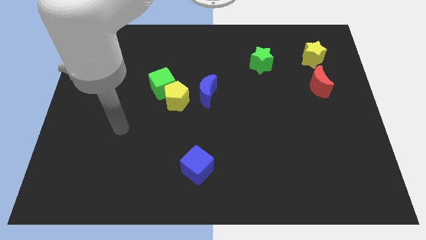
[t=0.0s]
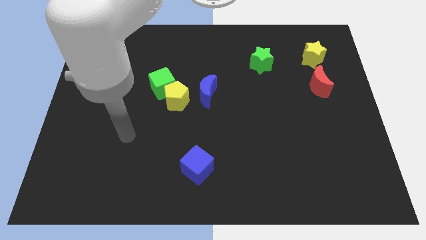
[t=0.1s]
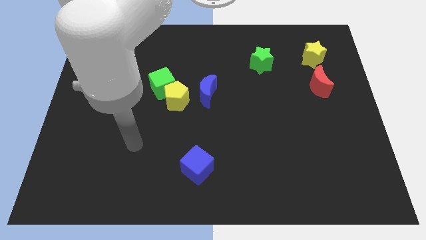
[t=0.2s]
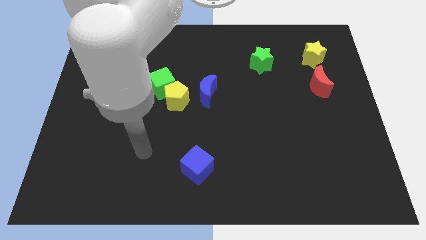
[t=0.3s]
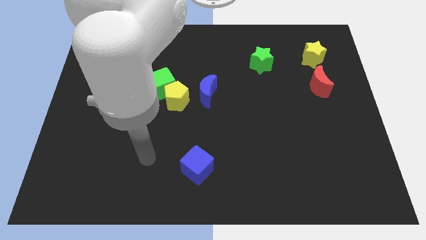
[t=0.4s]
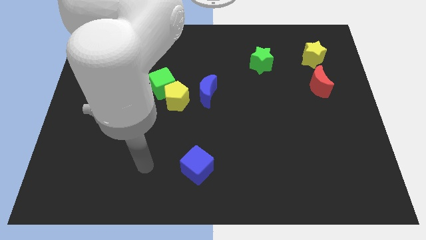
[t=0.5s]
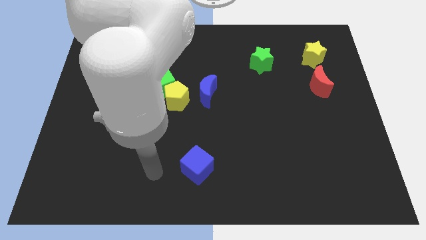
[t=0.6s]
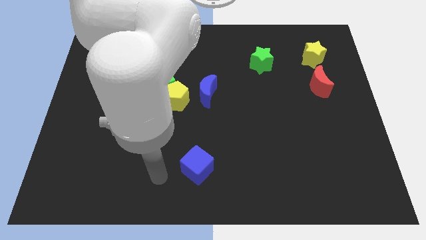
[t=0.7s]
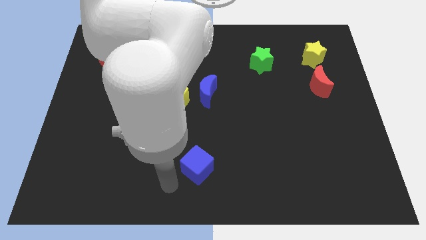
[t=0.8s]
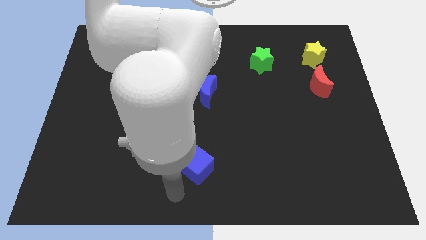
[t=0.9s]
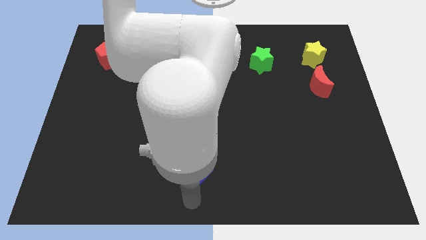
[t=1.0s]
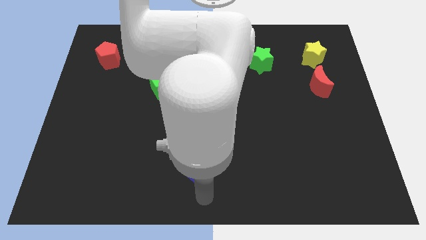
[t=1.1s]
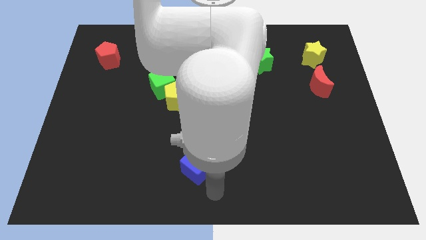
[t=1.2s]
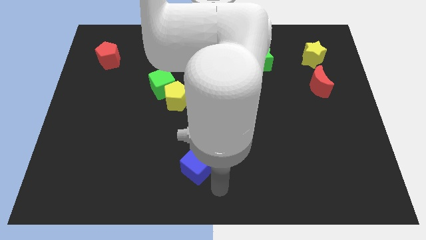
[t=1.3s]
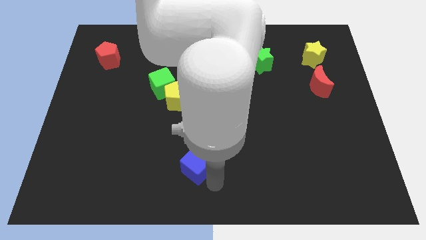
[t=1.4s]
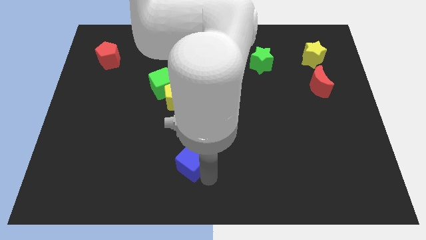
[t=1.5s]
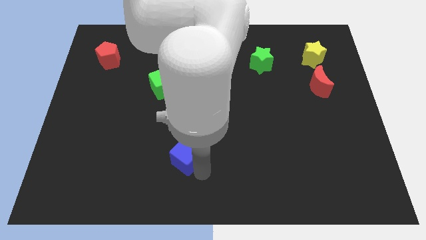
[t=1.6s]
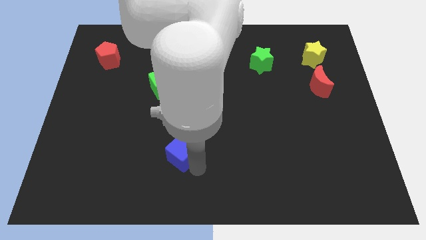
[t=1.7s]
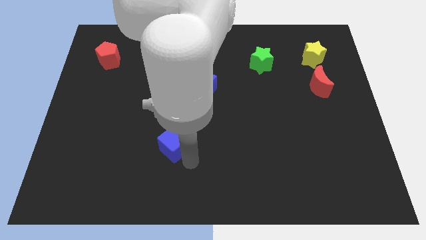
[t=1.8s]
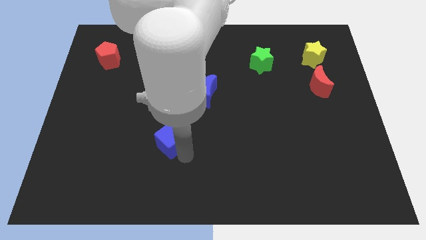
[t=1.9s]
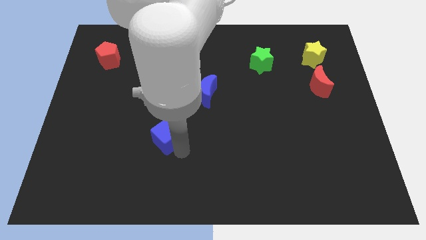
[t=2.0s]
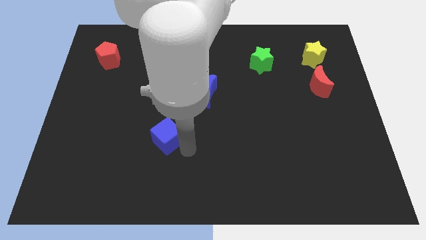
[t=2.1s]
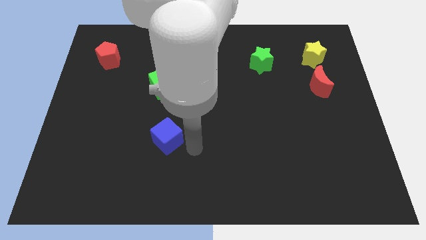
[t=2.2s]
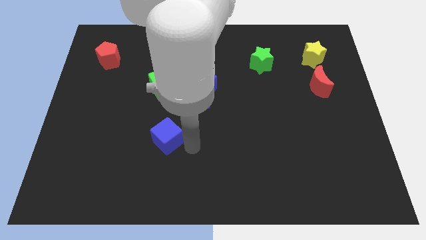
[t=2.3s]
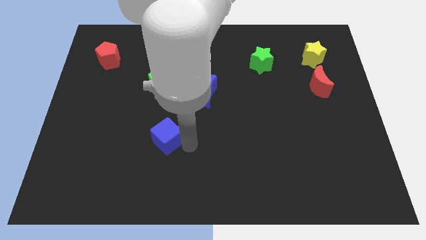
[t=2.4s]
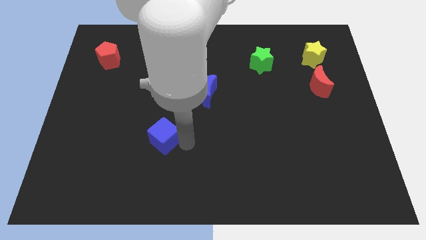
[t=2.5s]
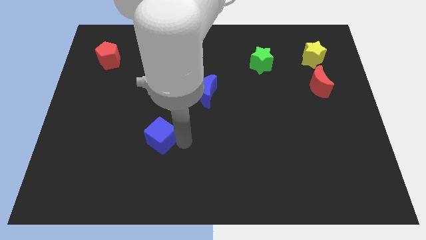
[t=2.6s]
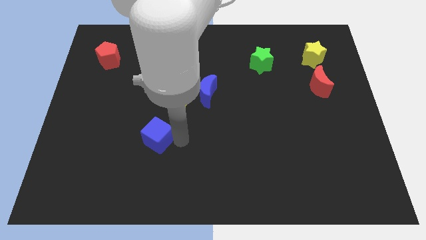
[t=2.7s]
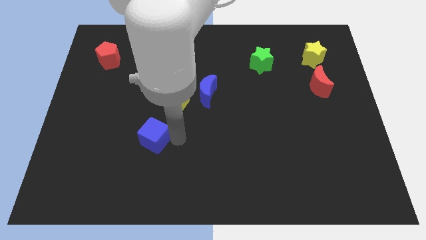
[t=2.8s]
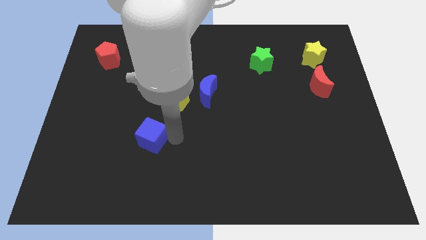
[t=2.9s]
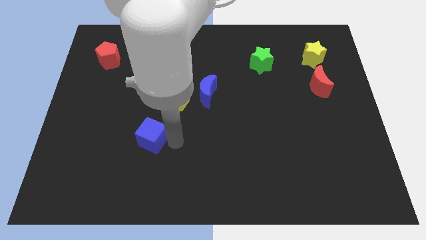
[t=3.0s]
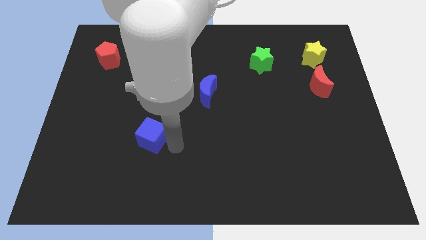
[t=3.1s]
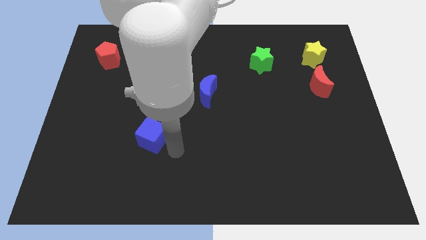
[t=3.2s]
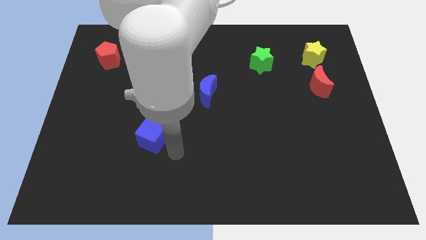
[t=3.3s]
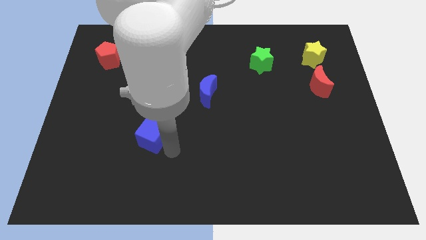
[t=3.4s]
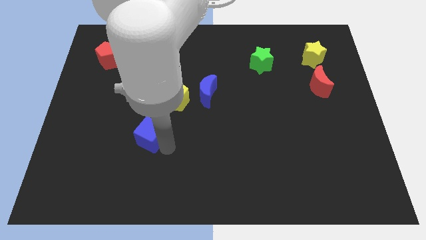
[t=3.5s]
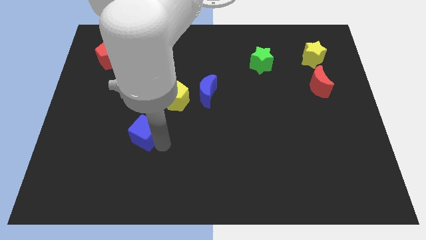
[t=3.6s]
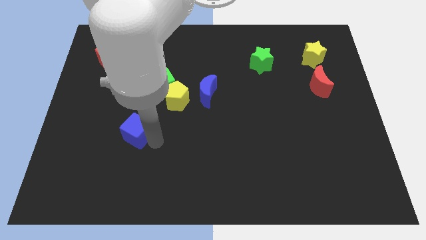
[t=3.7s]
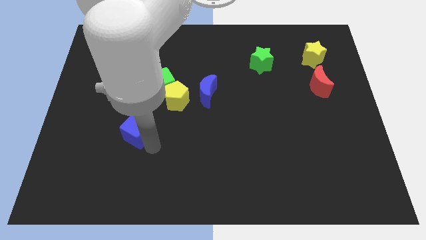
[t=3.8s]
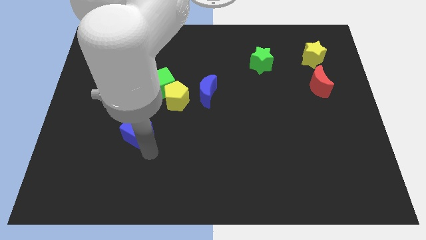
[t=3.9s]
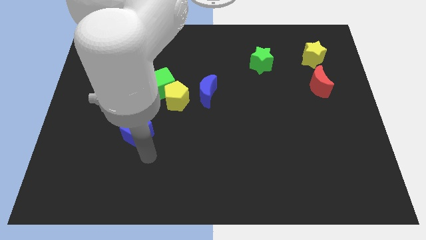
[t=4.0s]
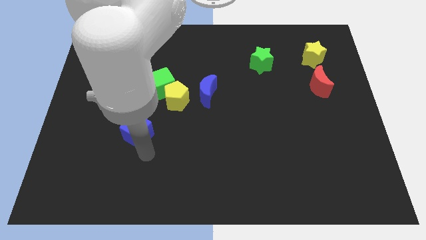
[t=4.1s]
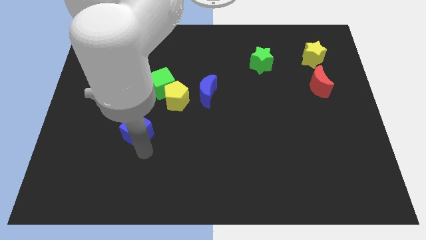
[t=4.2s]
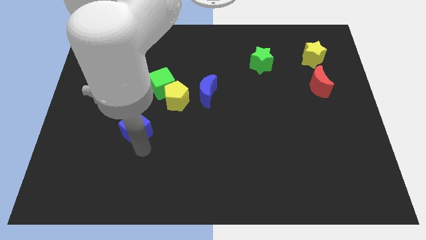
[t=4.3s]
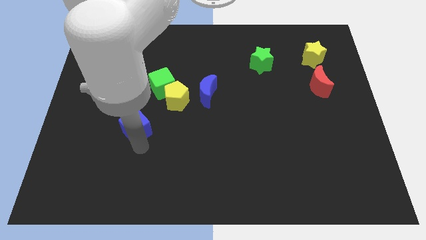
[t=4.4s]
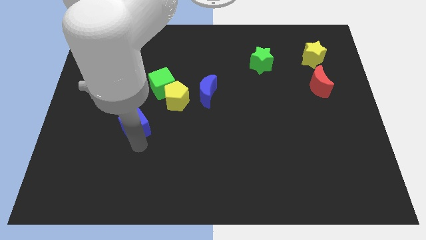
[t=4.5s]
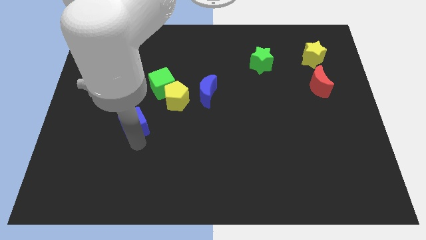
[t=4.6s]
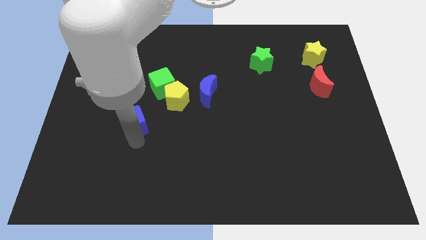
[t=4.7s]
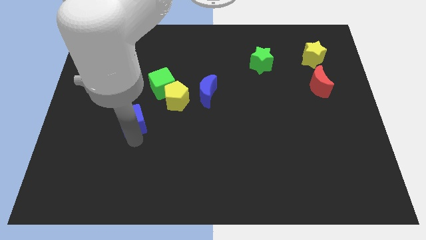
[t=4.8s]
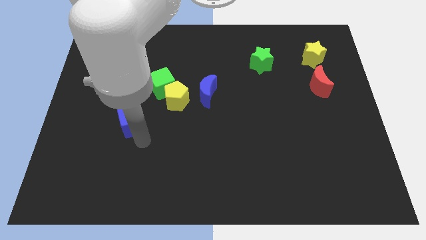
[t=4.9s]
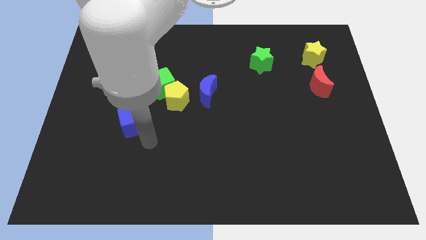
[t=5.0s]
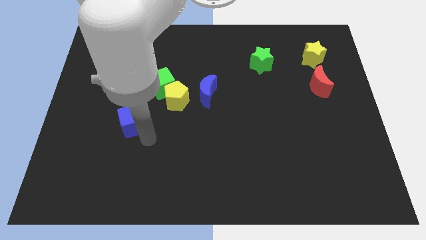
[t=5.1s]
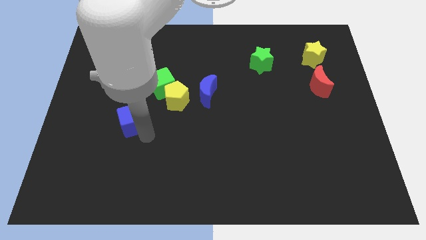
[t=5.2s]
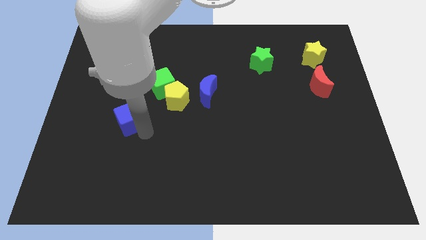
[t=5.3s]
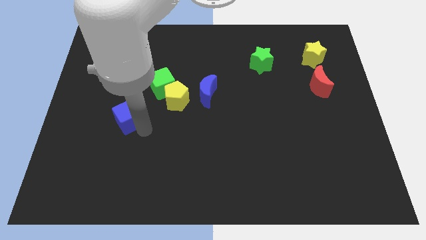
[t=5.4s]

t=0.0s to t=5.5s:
move the blue cube diagonally up and to the left

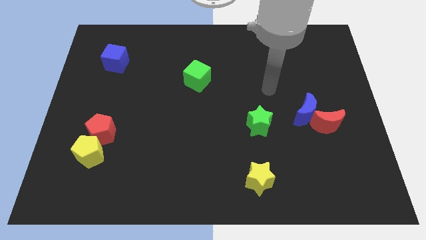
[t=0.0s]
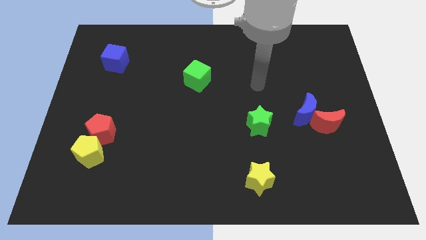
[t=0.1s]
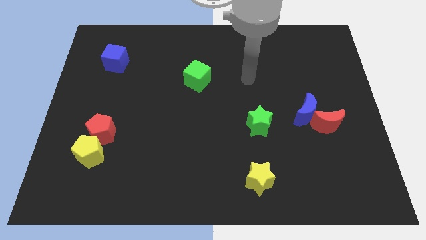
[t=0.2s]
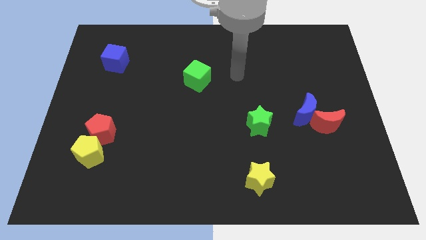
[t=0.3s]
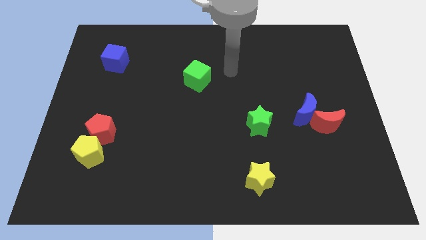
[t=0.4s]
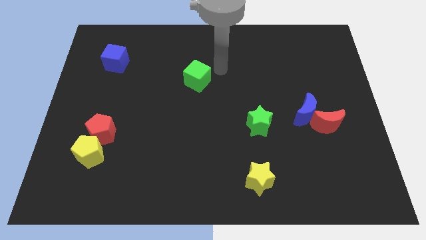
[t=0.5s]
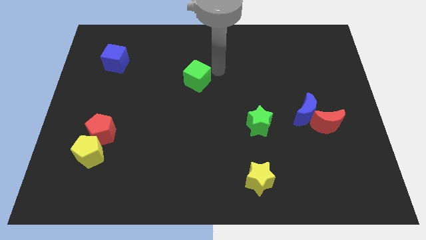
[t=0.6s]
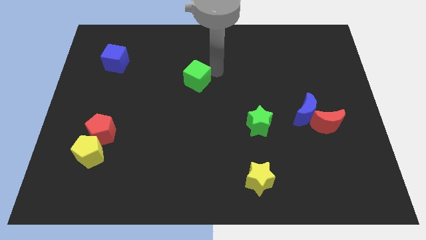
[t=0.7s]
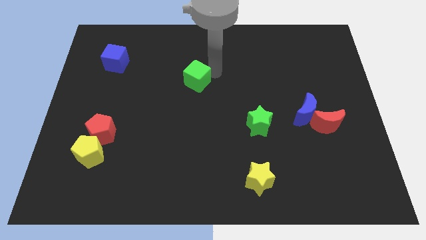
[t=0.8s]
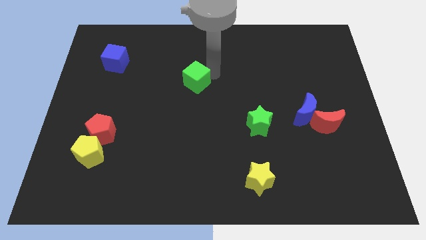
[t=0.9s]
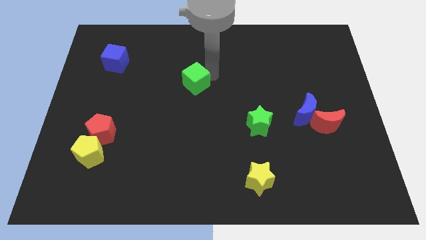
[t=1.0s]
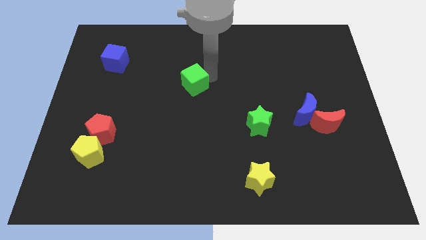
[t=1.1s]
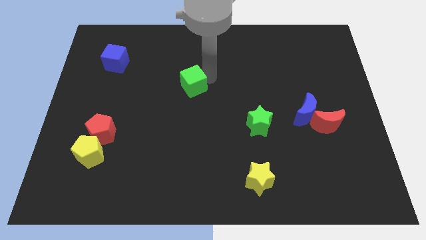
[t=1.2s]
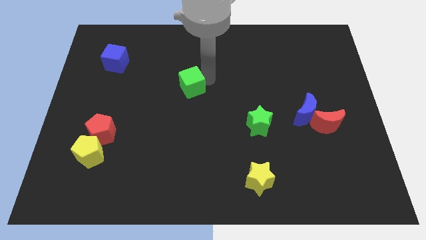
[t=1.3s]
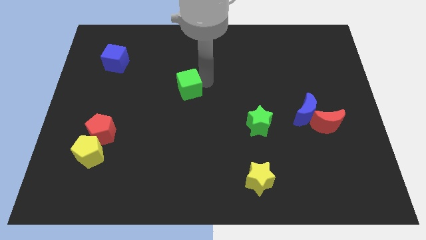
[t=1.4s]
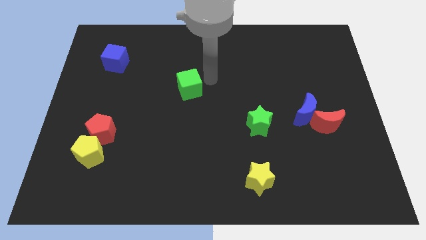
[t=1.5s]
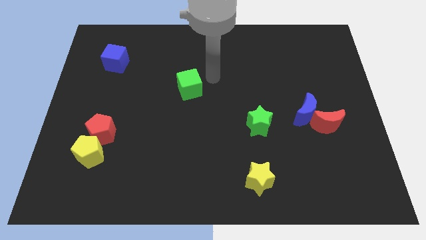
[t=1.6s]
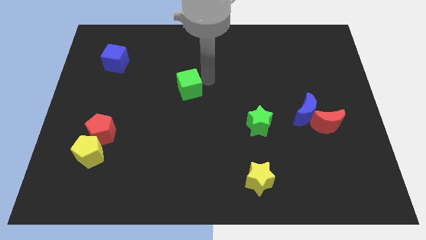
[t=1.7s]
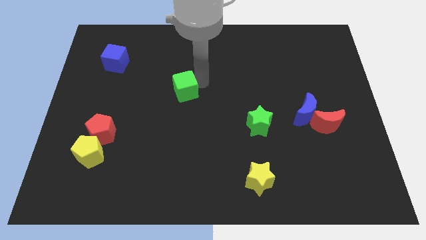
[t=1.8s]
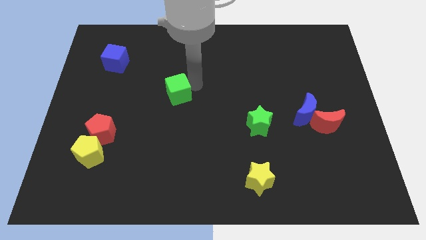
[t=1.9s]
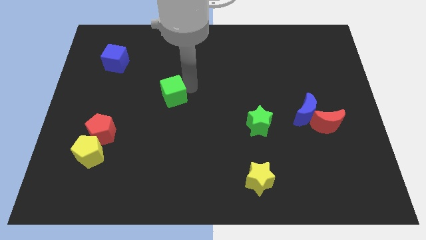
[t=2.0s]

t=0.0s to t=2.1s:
push the green cube downwards and left a little

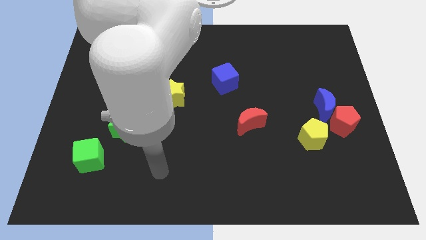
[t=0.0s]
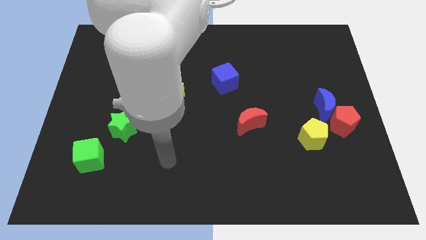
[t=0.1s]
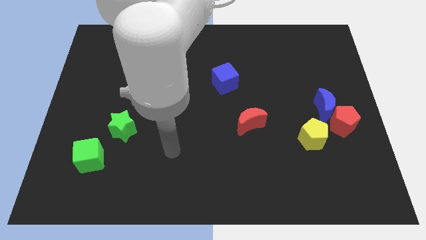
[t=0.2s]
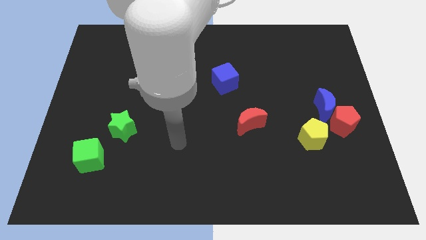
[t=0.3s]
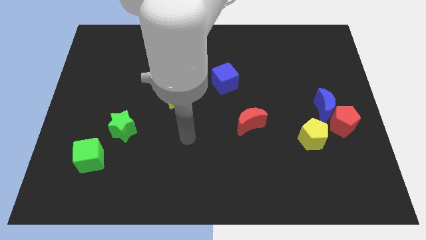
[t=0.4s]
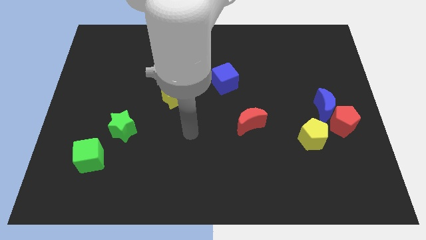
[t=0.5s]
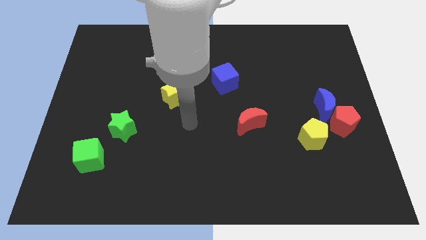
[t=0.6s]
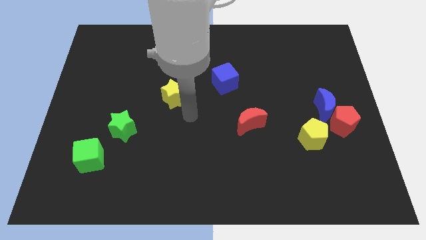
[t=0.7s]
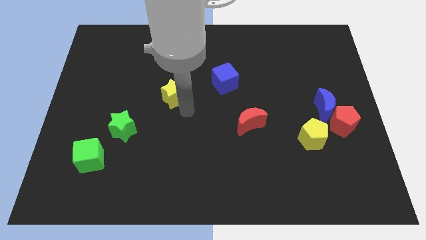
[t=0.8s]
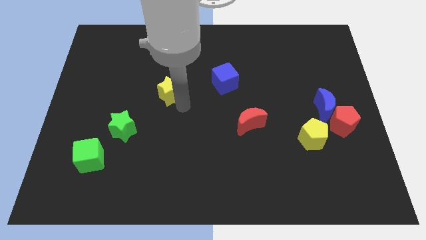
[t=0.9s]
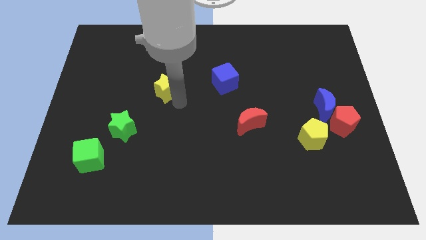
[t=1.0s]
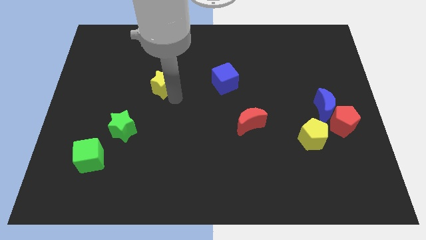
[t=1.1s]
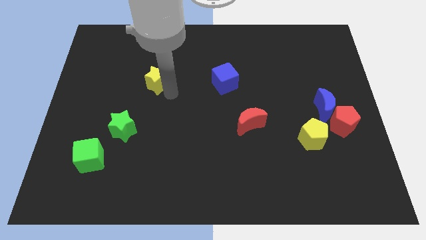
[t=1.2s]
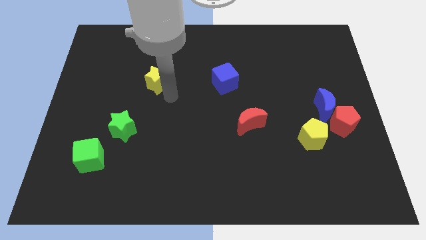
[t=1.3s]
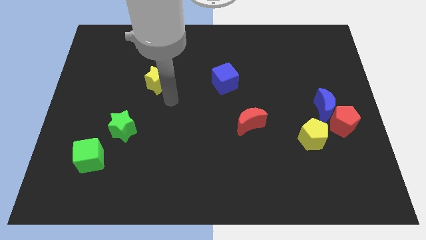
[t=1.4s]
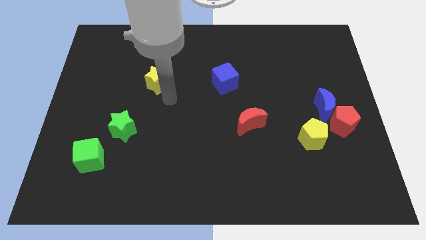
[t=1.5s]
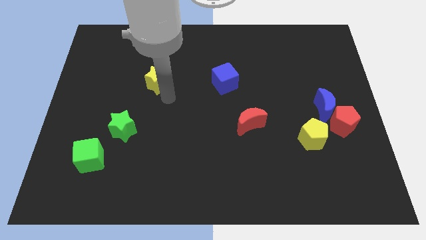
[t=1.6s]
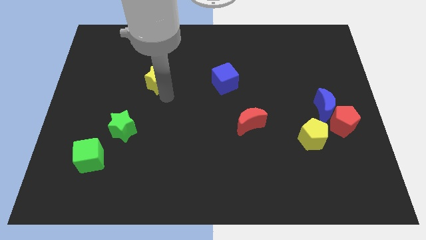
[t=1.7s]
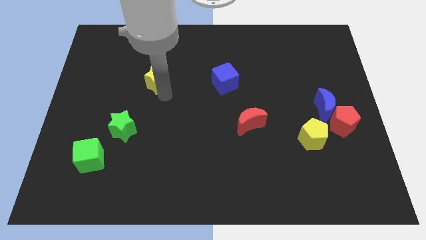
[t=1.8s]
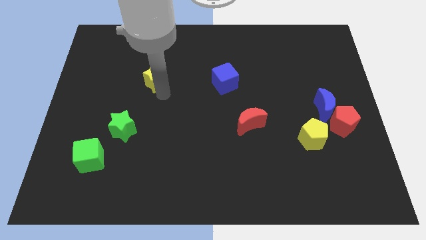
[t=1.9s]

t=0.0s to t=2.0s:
push the yellow star up and then left somewhat
